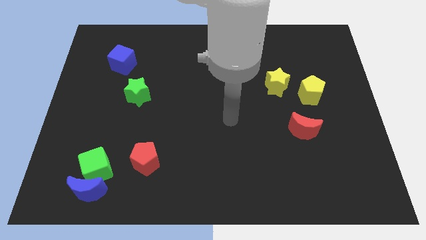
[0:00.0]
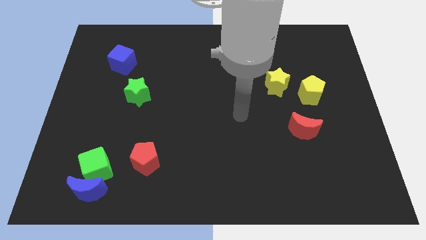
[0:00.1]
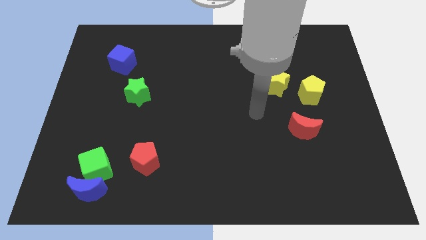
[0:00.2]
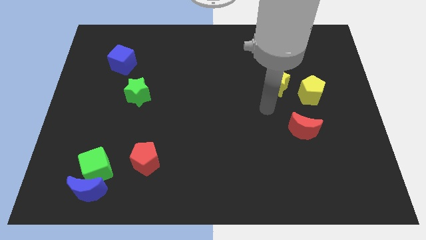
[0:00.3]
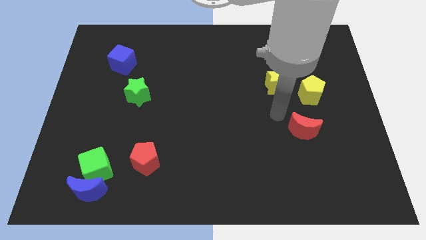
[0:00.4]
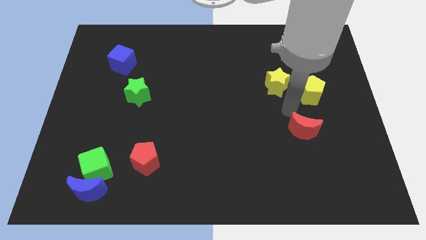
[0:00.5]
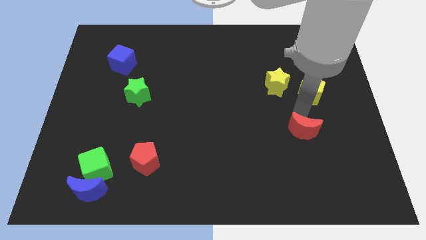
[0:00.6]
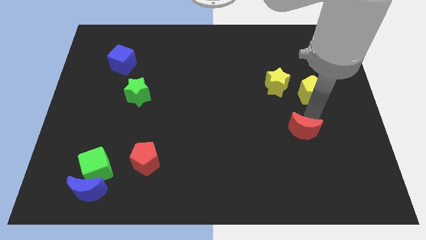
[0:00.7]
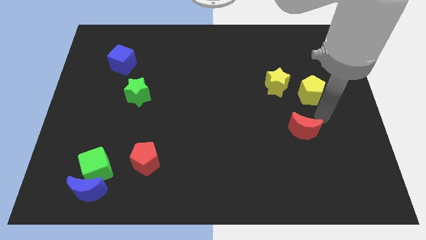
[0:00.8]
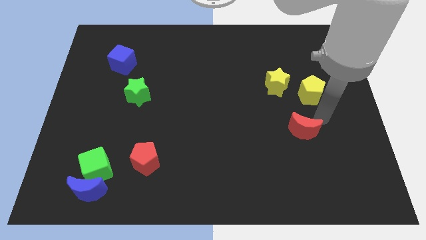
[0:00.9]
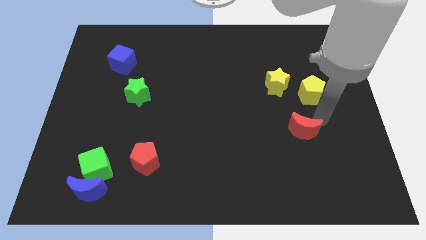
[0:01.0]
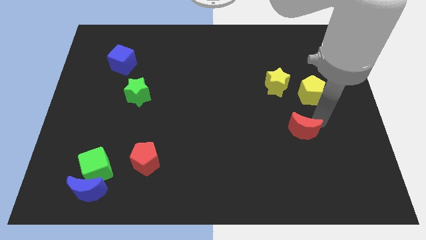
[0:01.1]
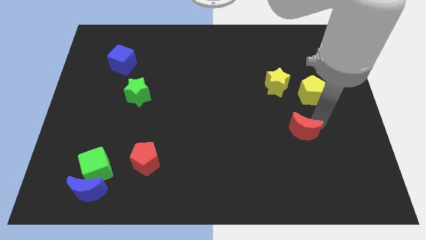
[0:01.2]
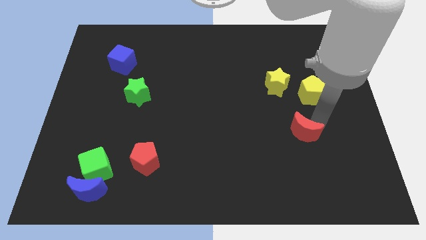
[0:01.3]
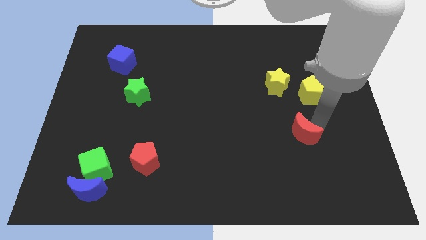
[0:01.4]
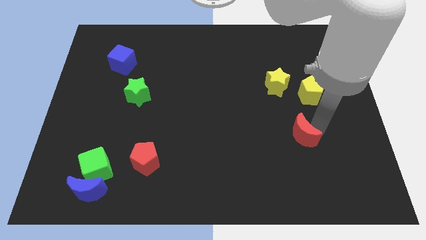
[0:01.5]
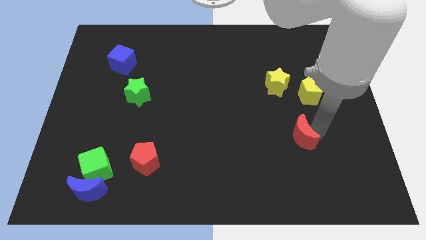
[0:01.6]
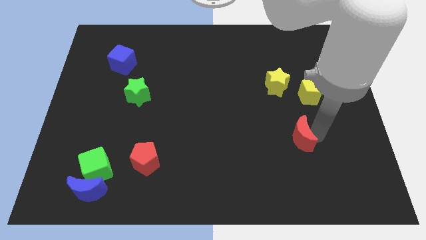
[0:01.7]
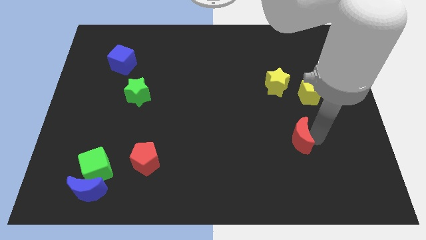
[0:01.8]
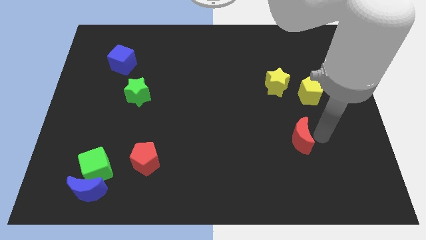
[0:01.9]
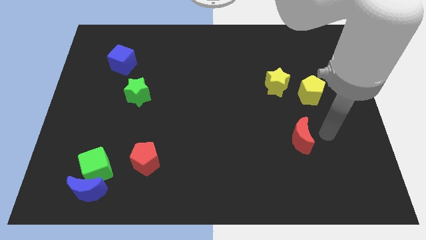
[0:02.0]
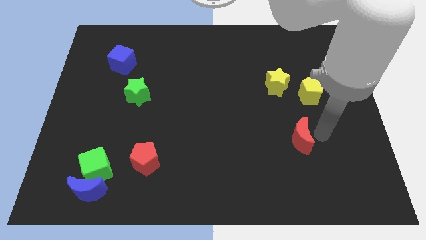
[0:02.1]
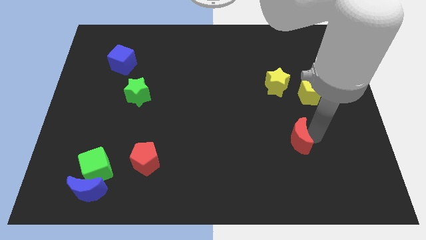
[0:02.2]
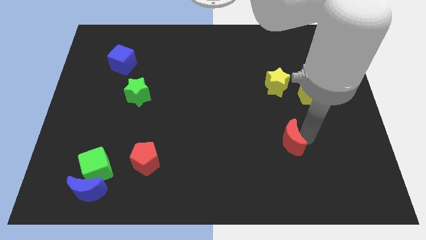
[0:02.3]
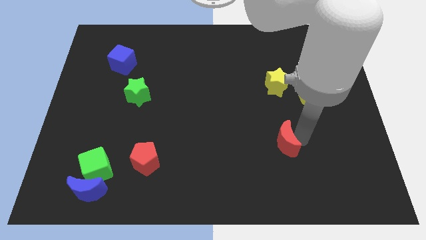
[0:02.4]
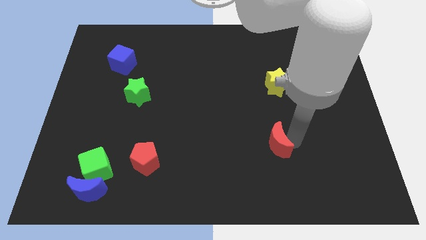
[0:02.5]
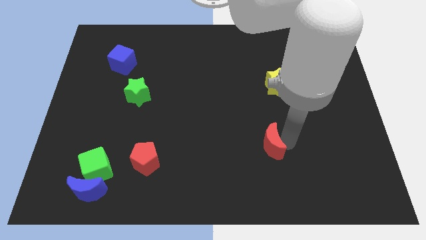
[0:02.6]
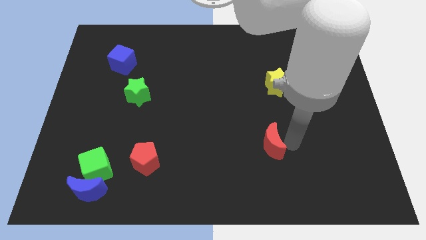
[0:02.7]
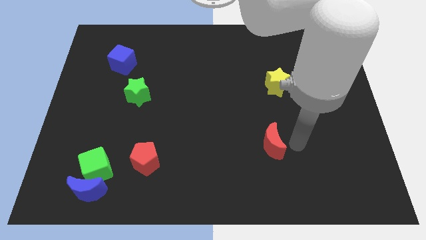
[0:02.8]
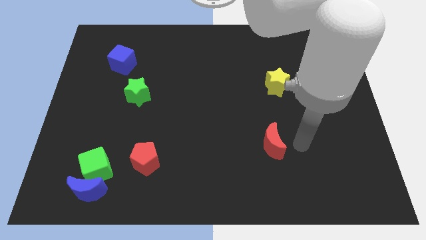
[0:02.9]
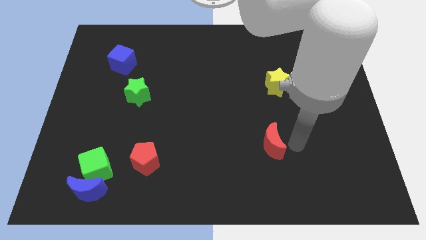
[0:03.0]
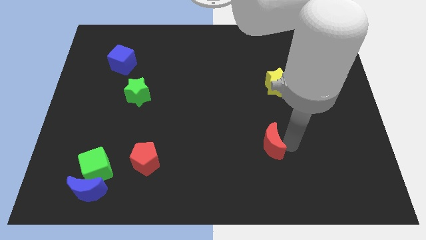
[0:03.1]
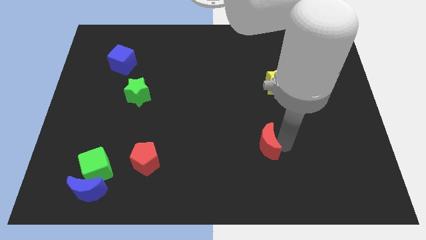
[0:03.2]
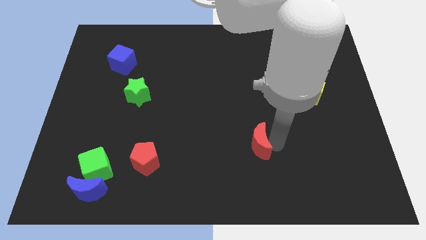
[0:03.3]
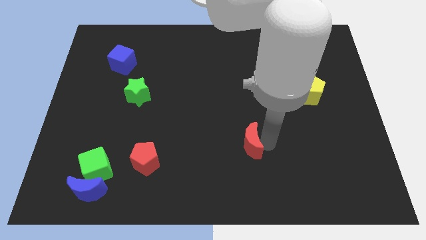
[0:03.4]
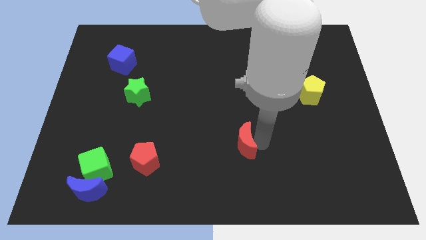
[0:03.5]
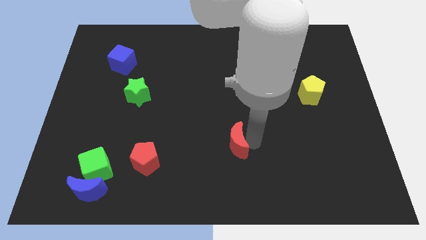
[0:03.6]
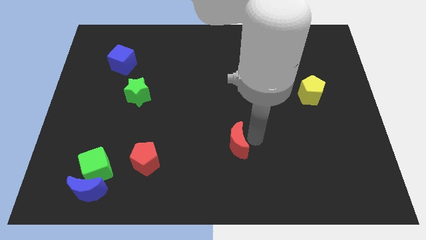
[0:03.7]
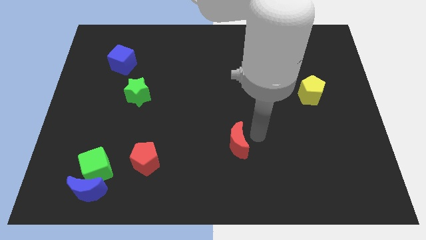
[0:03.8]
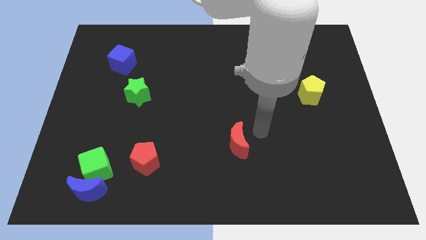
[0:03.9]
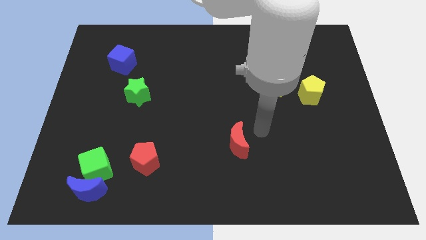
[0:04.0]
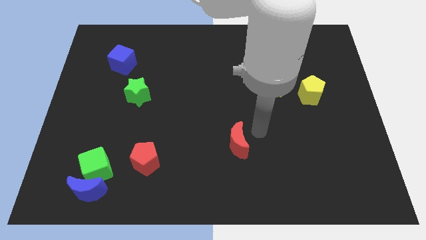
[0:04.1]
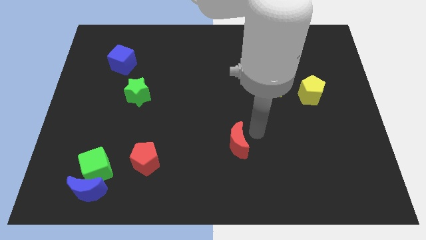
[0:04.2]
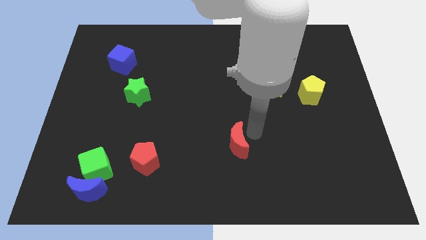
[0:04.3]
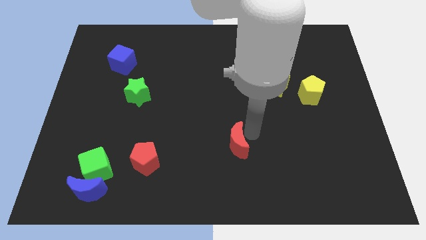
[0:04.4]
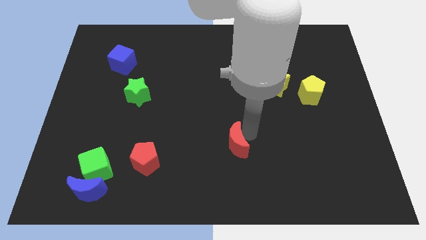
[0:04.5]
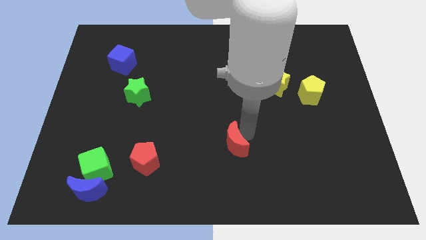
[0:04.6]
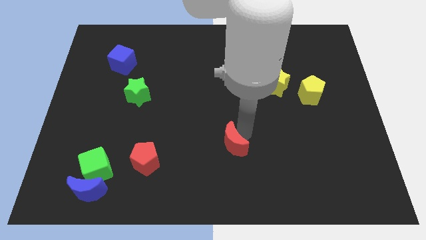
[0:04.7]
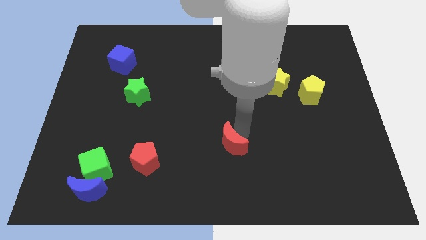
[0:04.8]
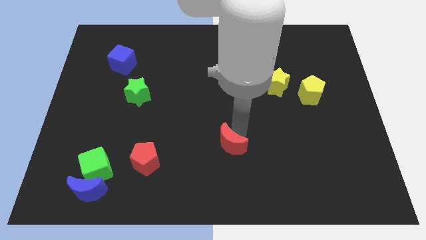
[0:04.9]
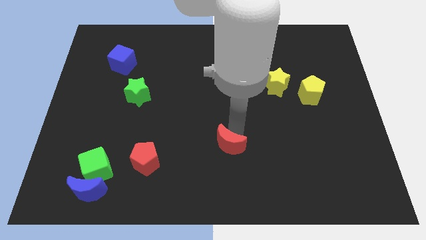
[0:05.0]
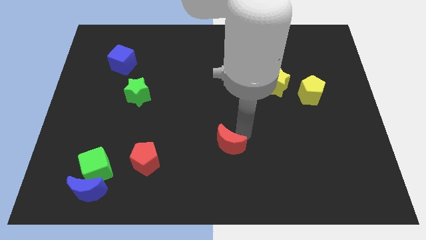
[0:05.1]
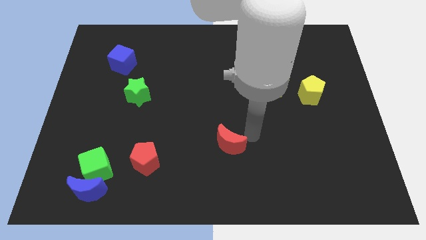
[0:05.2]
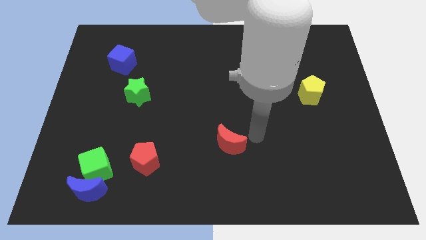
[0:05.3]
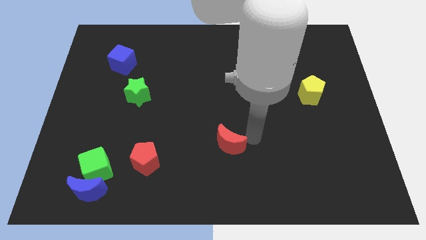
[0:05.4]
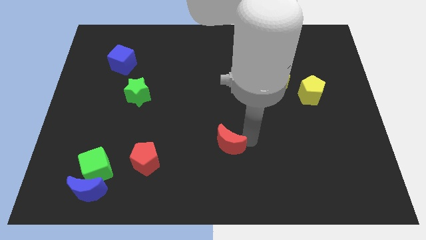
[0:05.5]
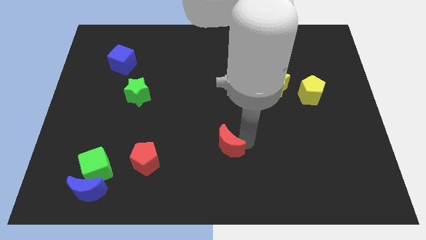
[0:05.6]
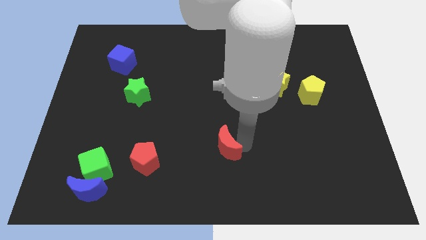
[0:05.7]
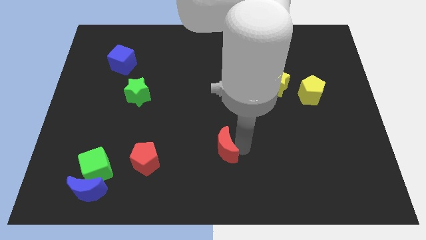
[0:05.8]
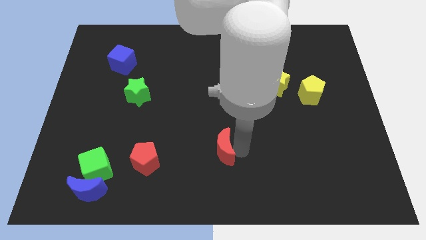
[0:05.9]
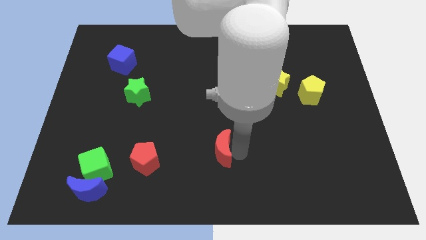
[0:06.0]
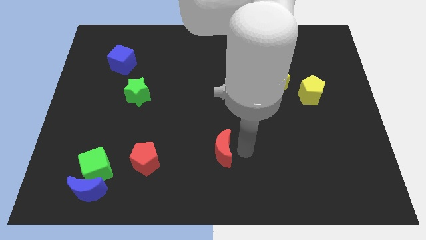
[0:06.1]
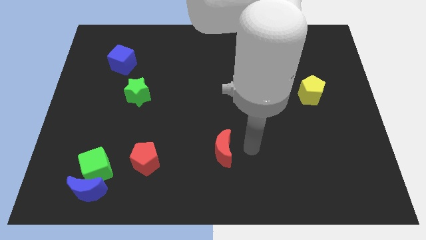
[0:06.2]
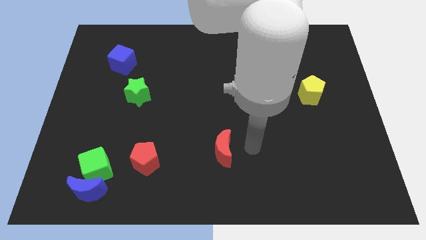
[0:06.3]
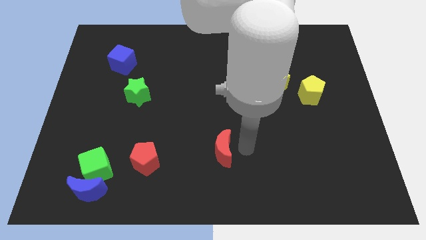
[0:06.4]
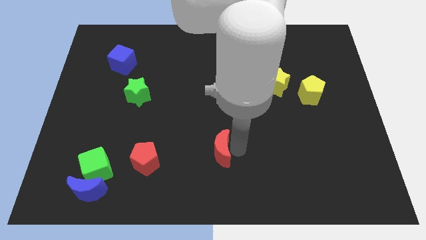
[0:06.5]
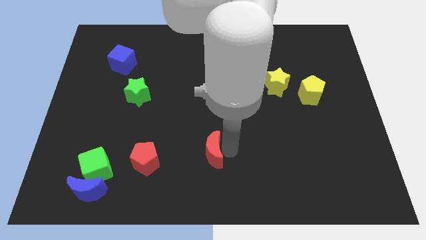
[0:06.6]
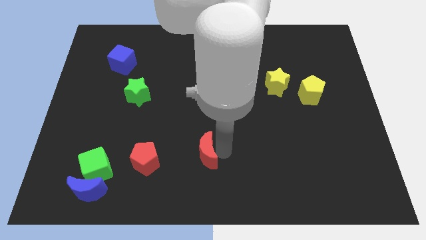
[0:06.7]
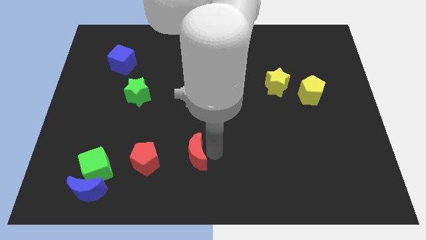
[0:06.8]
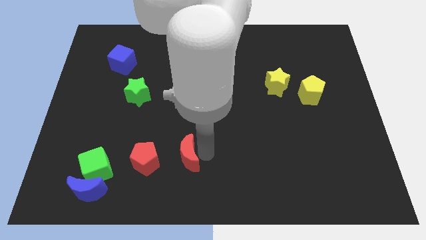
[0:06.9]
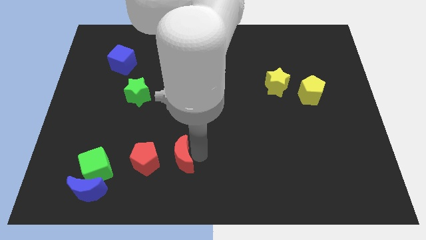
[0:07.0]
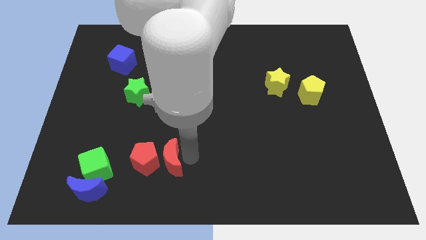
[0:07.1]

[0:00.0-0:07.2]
push the red moon towards the red pentagon
